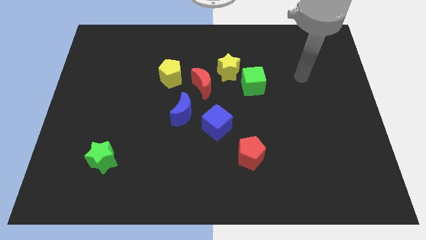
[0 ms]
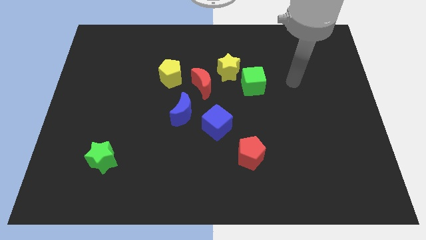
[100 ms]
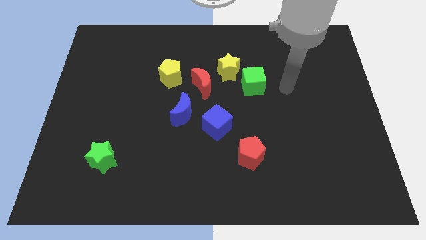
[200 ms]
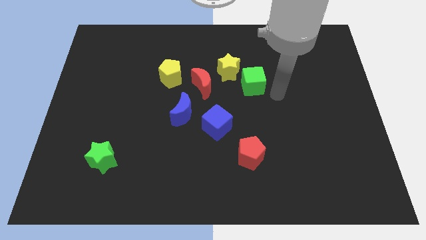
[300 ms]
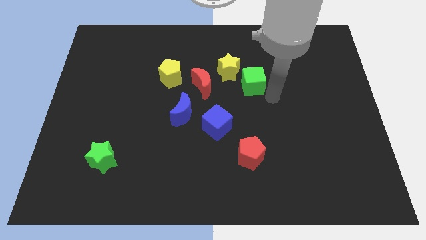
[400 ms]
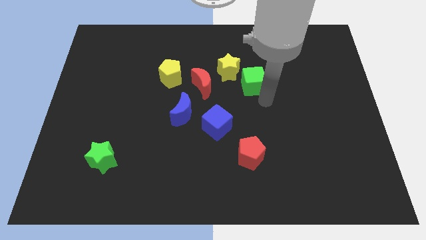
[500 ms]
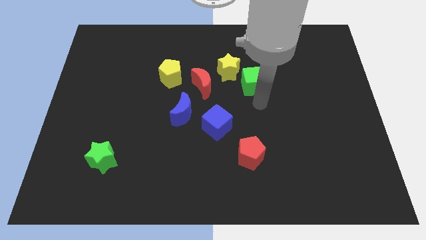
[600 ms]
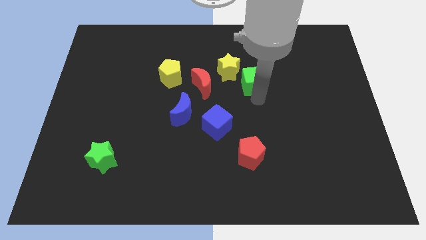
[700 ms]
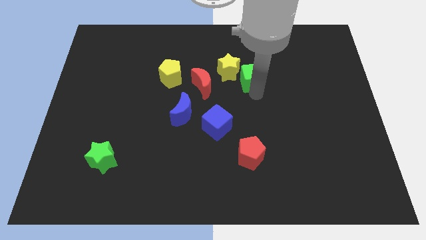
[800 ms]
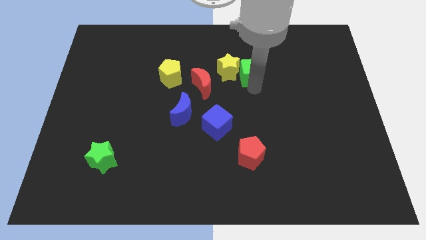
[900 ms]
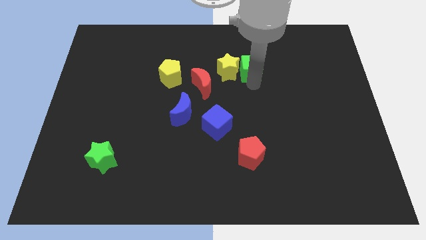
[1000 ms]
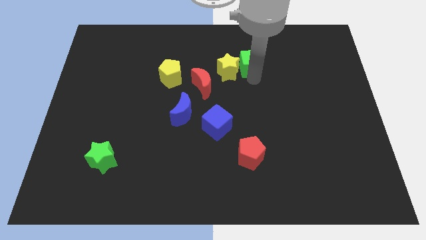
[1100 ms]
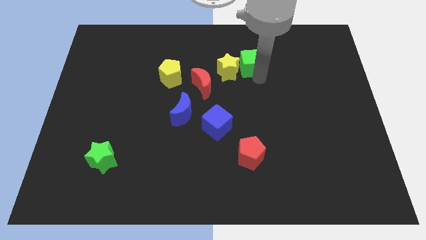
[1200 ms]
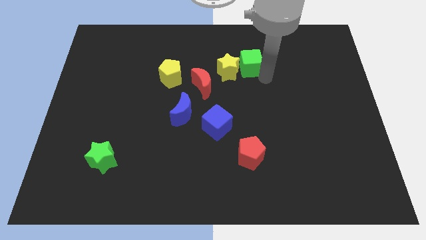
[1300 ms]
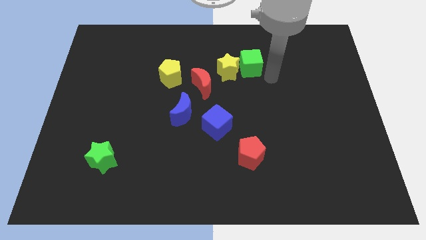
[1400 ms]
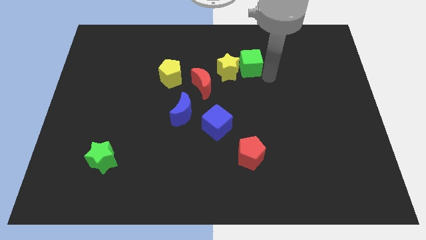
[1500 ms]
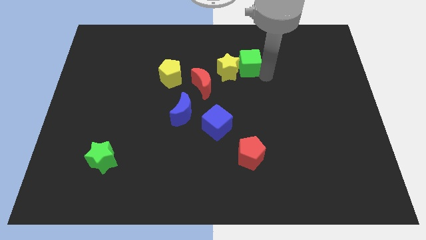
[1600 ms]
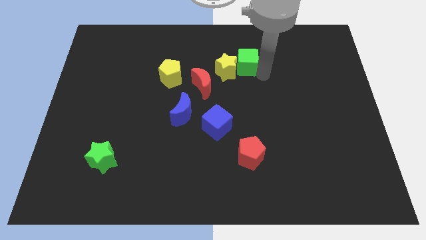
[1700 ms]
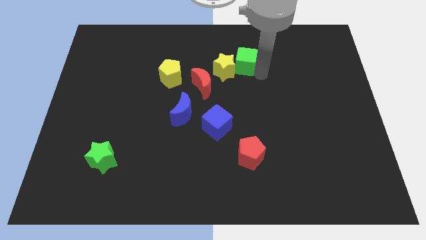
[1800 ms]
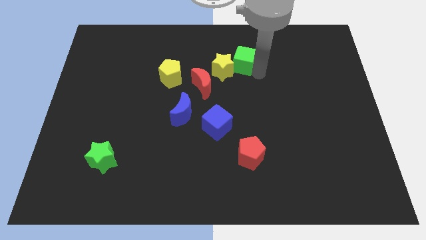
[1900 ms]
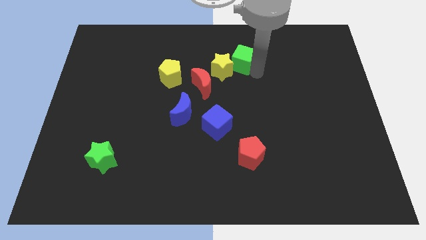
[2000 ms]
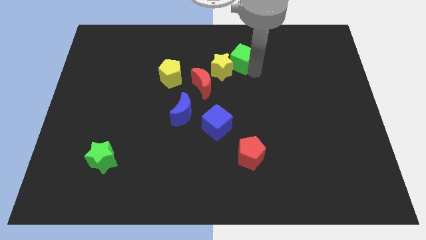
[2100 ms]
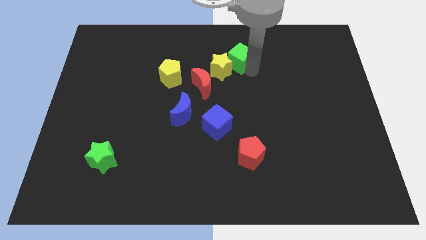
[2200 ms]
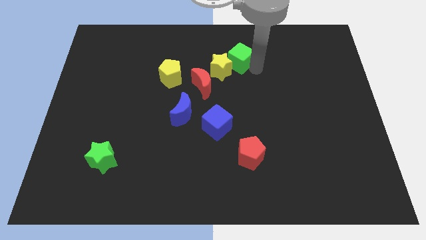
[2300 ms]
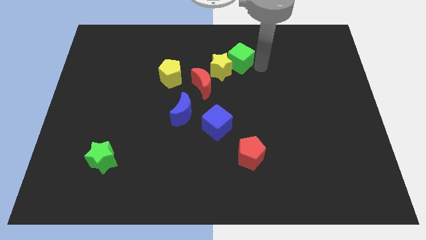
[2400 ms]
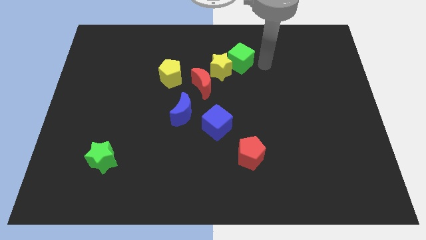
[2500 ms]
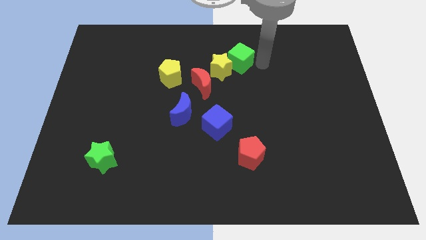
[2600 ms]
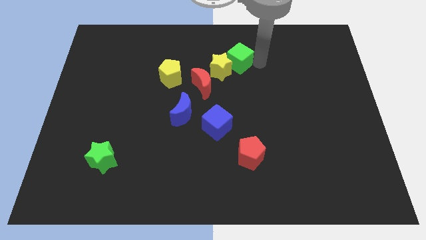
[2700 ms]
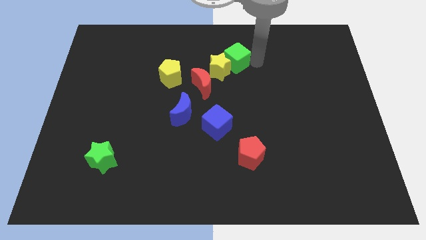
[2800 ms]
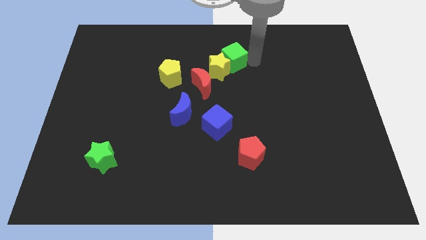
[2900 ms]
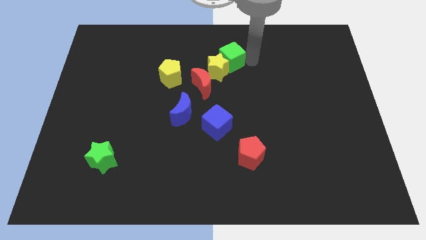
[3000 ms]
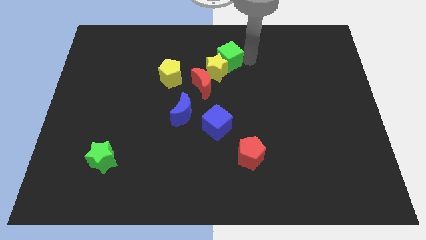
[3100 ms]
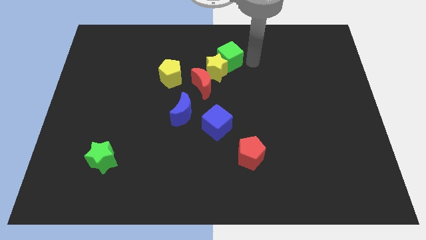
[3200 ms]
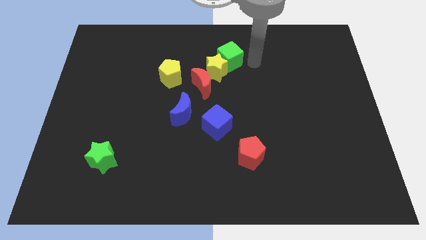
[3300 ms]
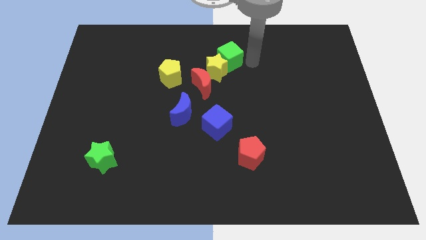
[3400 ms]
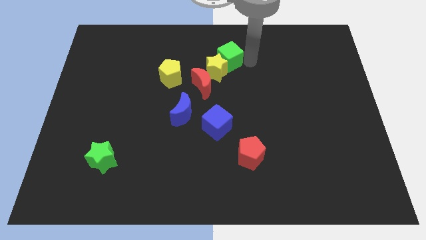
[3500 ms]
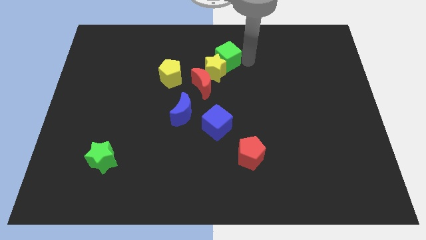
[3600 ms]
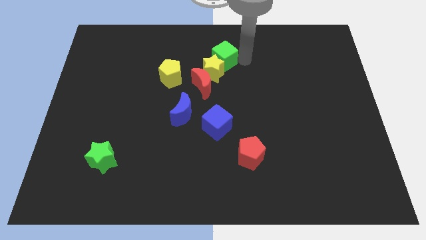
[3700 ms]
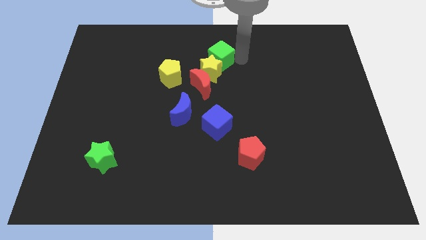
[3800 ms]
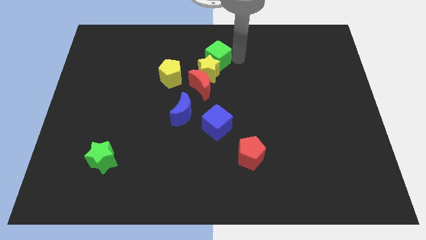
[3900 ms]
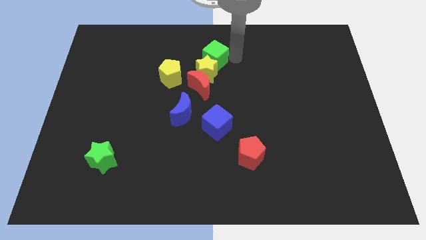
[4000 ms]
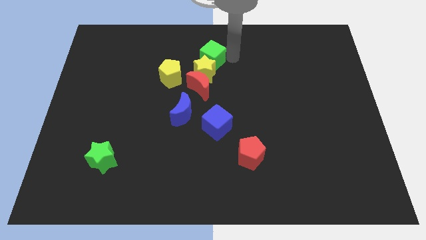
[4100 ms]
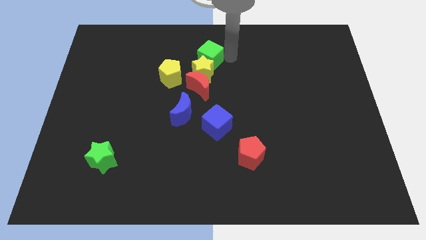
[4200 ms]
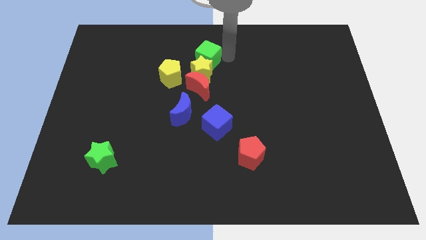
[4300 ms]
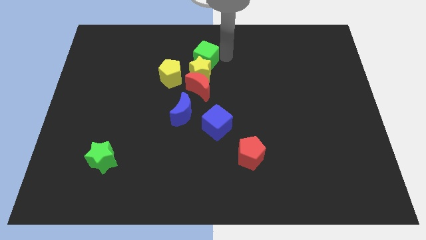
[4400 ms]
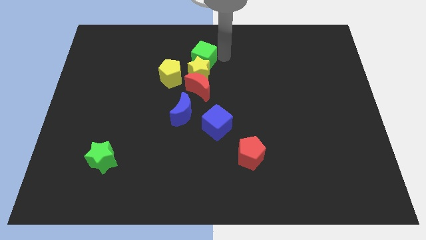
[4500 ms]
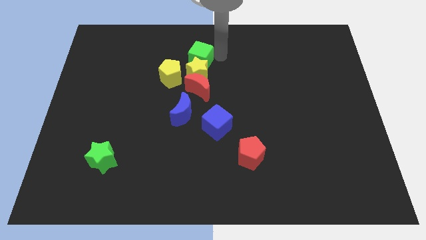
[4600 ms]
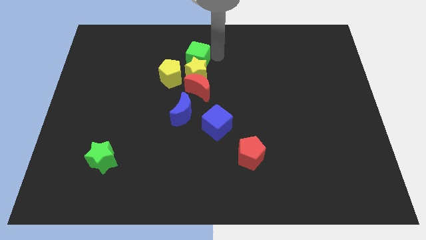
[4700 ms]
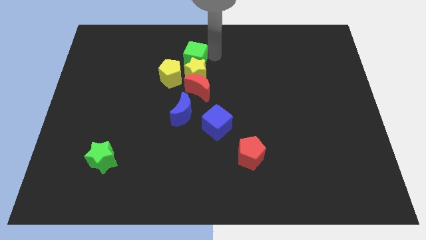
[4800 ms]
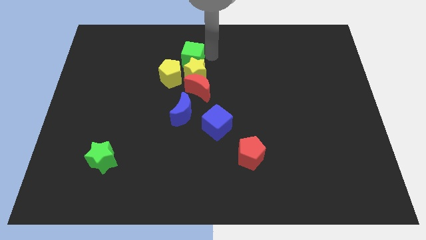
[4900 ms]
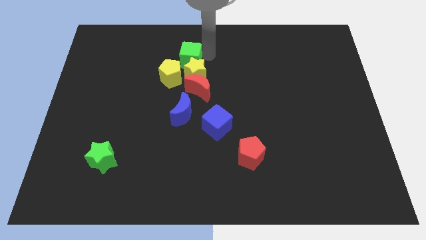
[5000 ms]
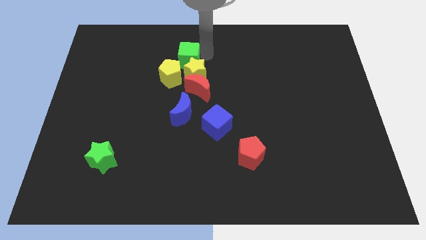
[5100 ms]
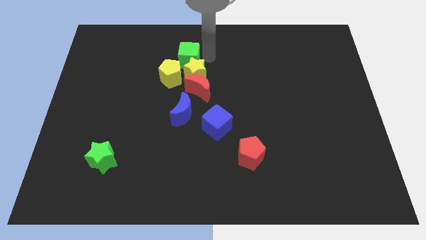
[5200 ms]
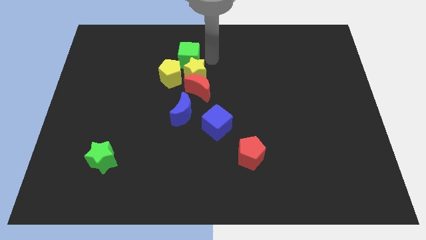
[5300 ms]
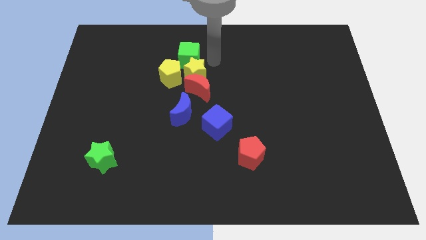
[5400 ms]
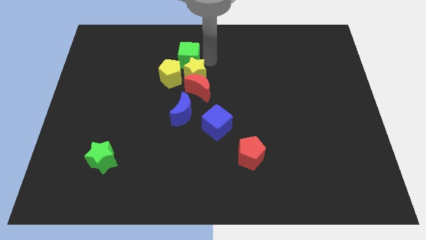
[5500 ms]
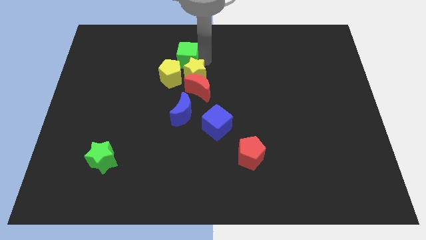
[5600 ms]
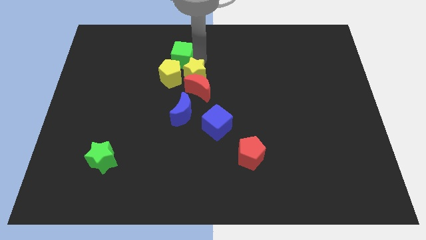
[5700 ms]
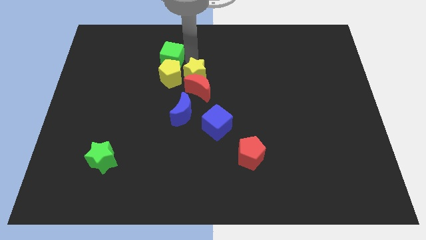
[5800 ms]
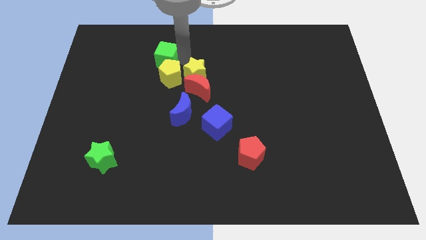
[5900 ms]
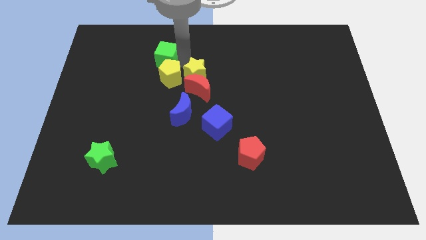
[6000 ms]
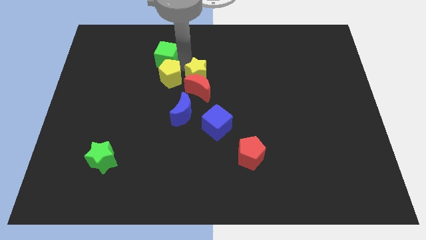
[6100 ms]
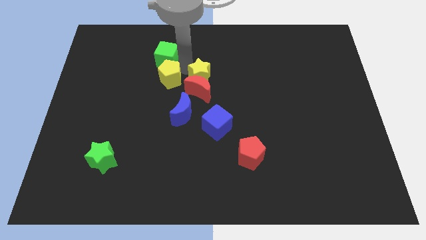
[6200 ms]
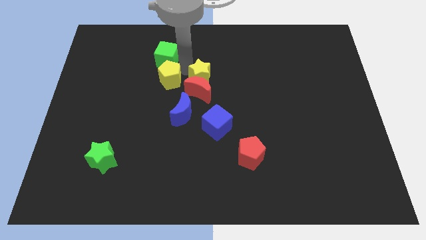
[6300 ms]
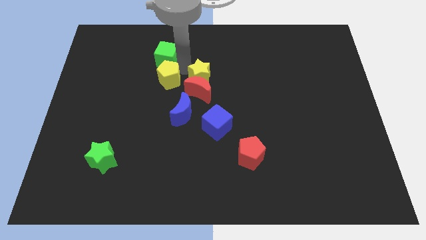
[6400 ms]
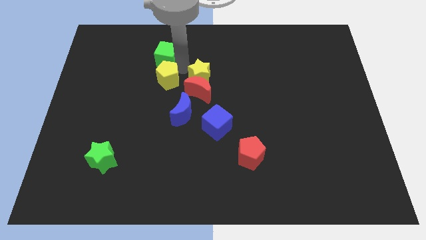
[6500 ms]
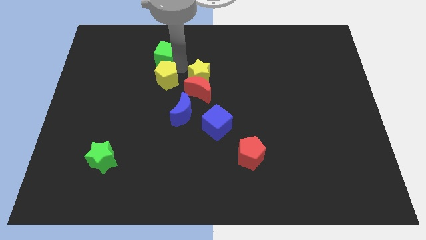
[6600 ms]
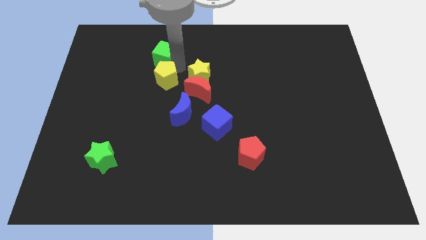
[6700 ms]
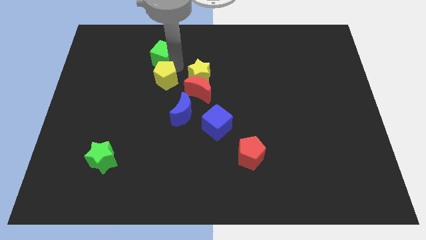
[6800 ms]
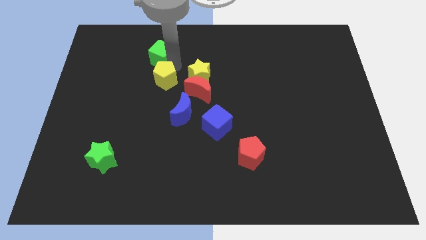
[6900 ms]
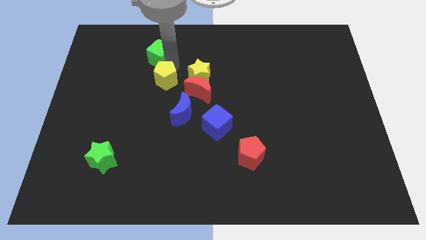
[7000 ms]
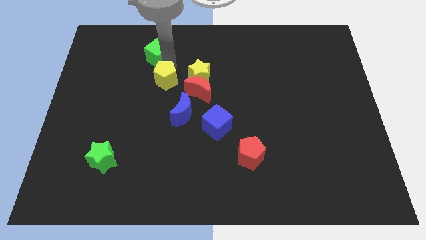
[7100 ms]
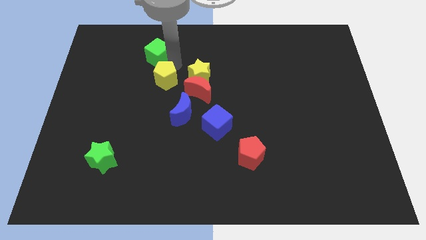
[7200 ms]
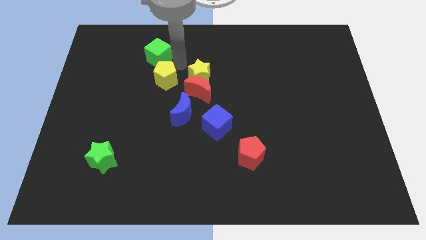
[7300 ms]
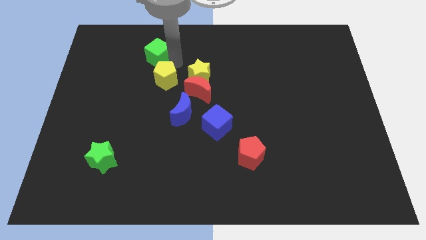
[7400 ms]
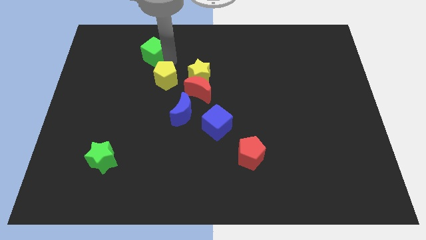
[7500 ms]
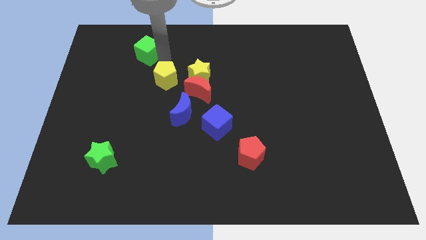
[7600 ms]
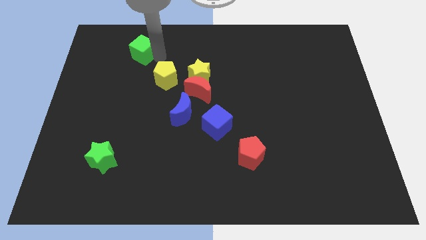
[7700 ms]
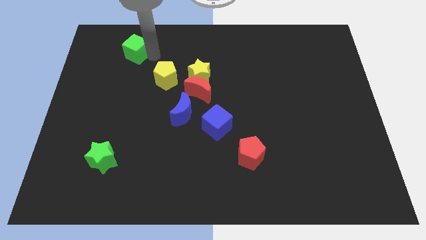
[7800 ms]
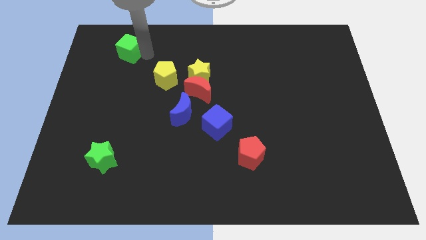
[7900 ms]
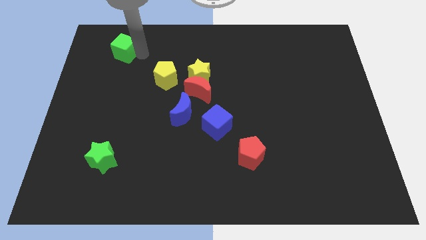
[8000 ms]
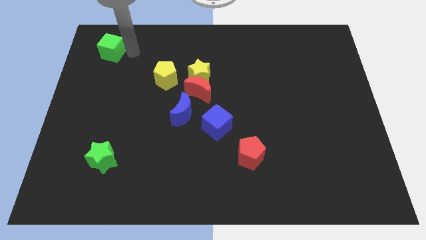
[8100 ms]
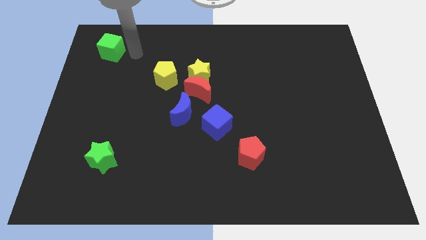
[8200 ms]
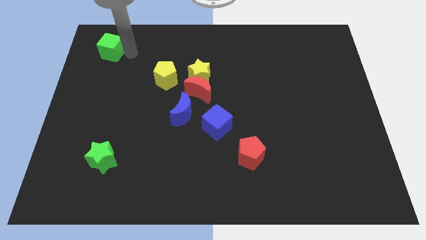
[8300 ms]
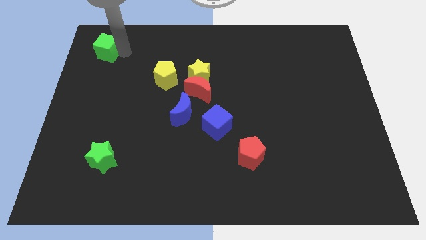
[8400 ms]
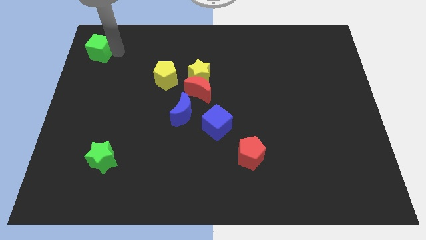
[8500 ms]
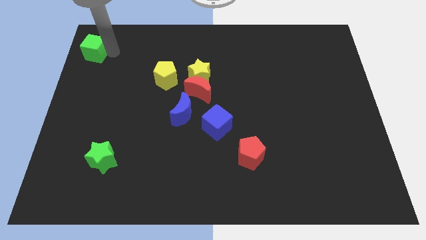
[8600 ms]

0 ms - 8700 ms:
push the green cube to the top left
